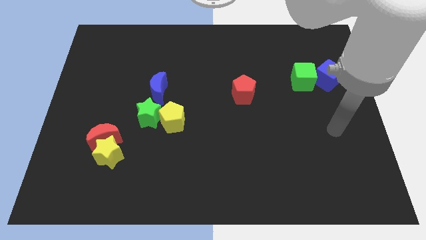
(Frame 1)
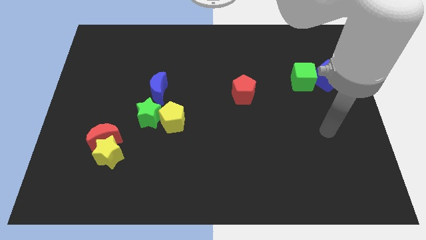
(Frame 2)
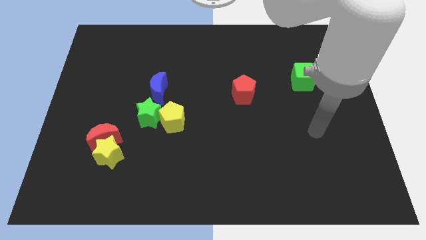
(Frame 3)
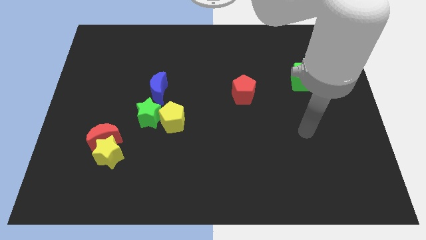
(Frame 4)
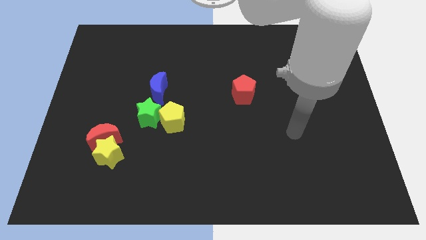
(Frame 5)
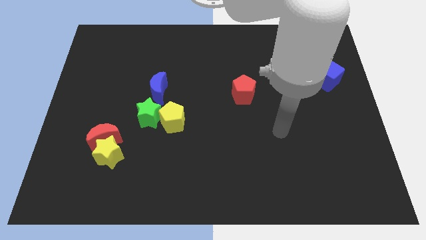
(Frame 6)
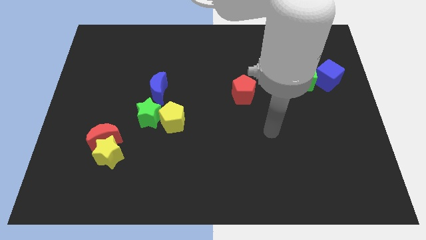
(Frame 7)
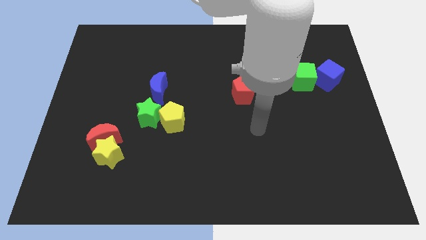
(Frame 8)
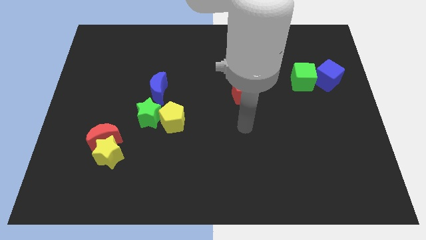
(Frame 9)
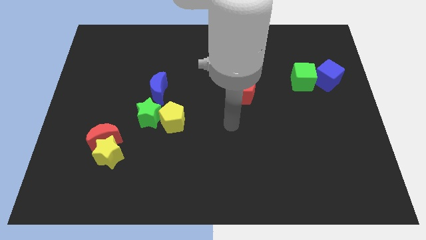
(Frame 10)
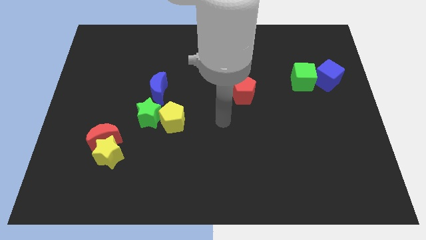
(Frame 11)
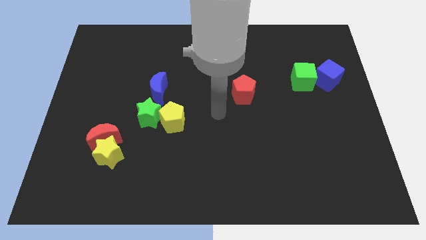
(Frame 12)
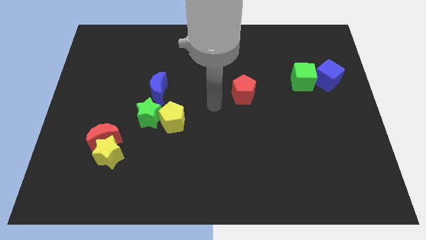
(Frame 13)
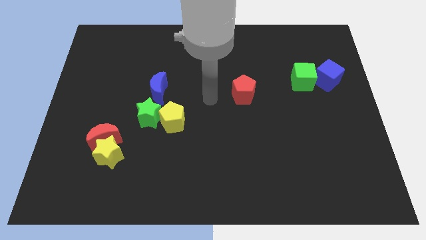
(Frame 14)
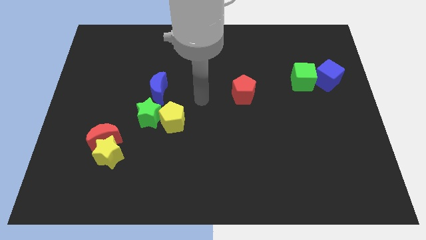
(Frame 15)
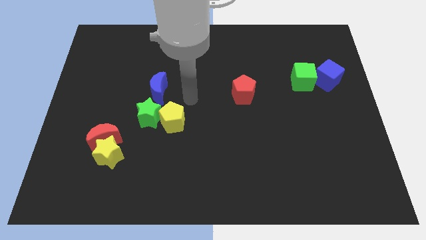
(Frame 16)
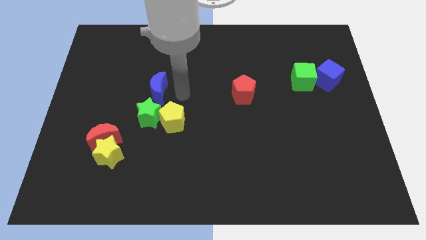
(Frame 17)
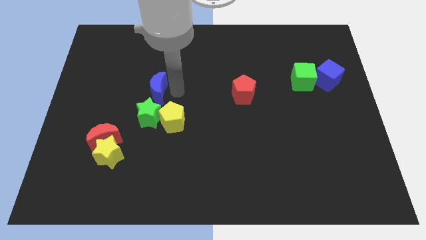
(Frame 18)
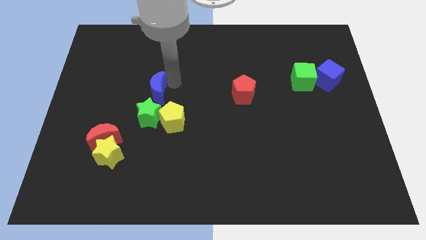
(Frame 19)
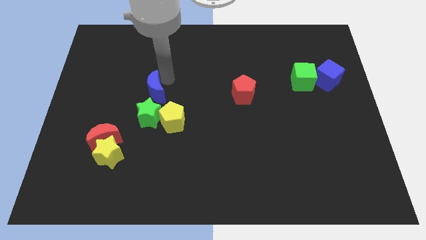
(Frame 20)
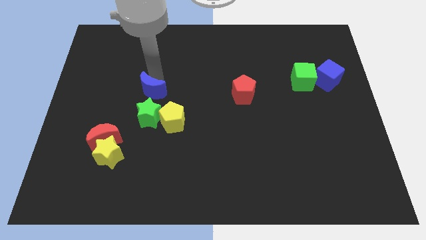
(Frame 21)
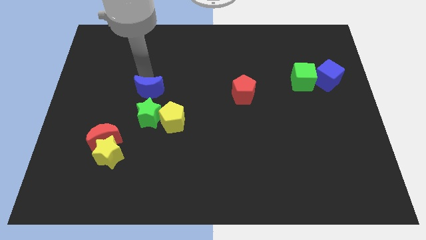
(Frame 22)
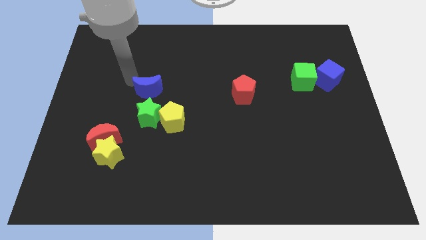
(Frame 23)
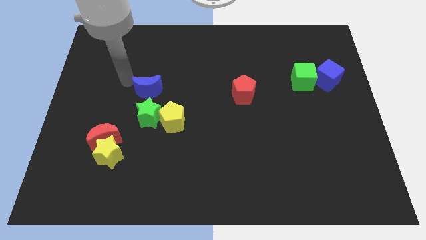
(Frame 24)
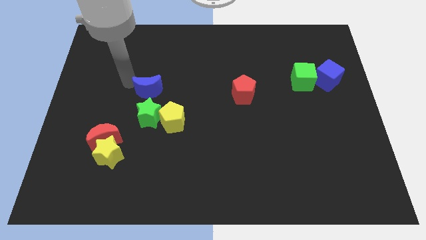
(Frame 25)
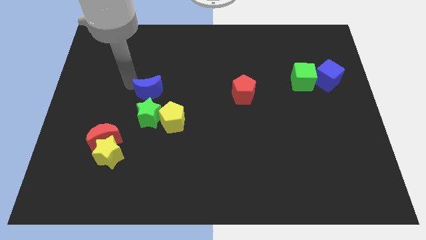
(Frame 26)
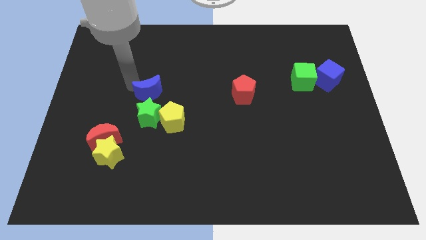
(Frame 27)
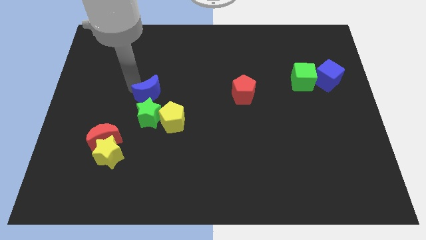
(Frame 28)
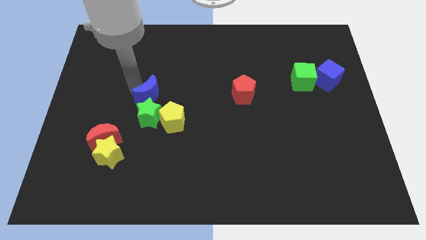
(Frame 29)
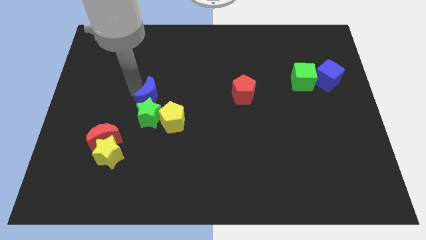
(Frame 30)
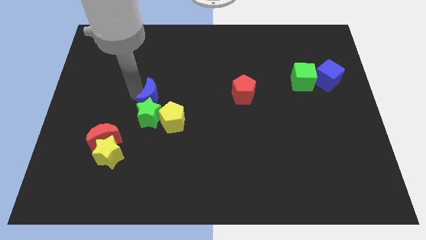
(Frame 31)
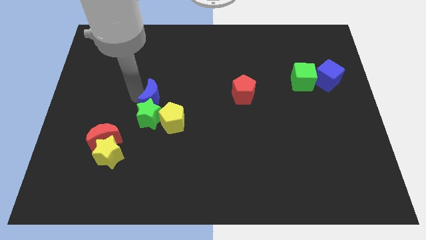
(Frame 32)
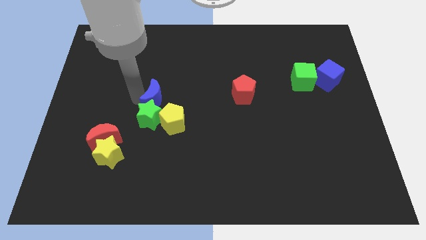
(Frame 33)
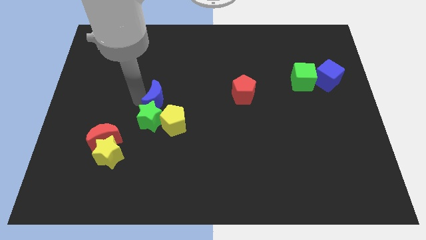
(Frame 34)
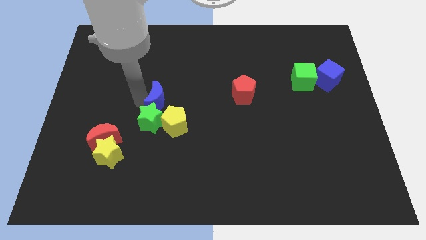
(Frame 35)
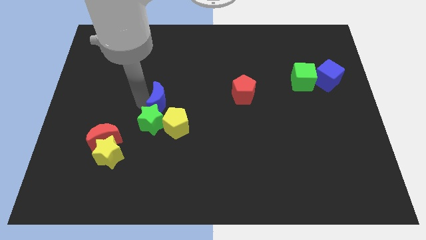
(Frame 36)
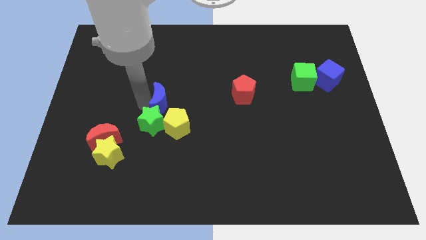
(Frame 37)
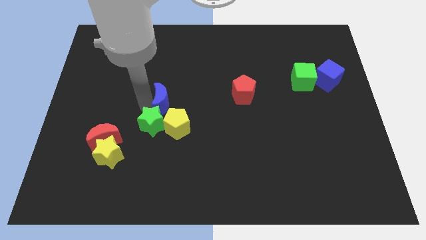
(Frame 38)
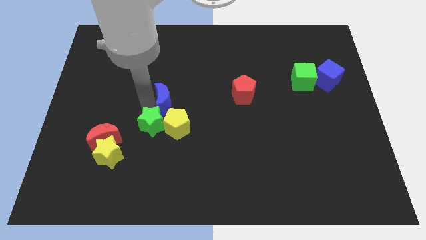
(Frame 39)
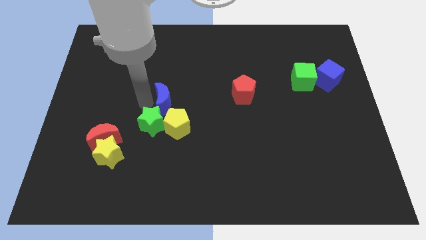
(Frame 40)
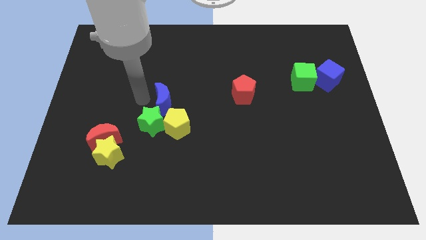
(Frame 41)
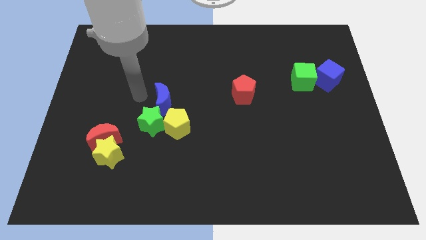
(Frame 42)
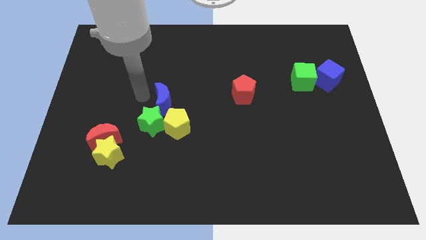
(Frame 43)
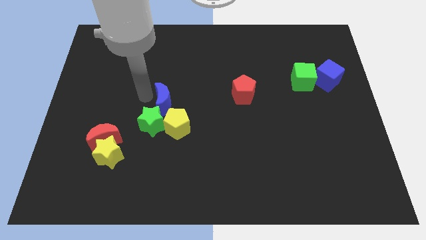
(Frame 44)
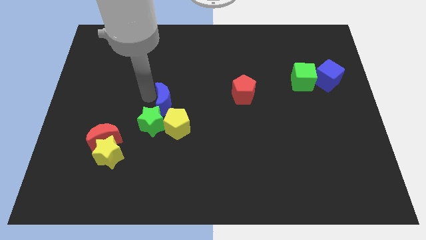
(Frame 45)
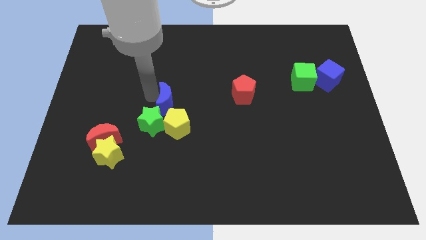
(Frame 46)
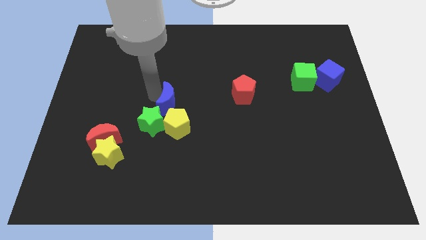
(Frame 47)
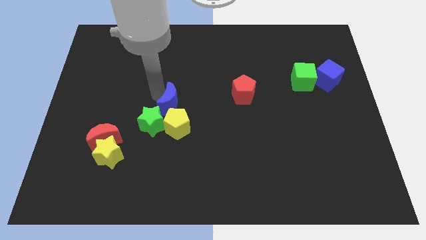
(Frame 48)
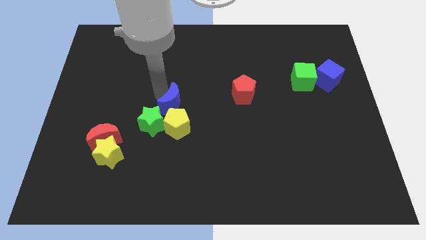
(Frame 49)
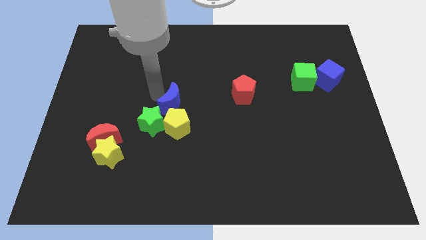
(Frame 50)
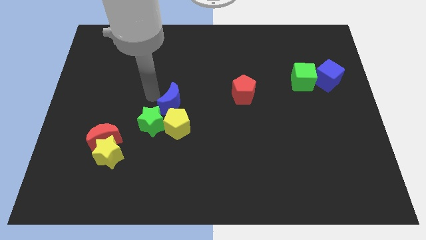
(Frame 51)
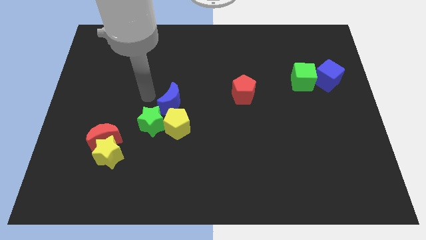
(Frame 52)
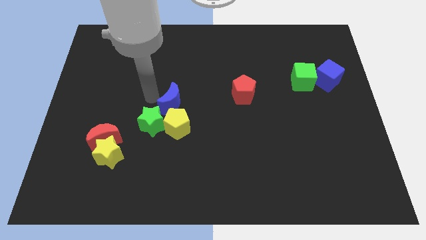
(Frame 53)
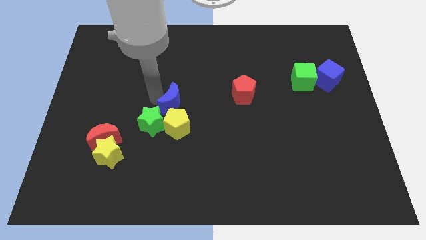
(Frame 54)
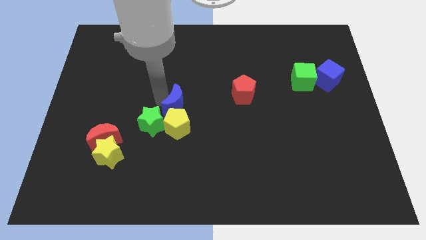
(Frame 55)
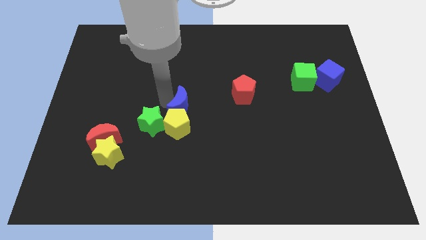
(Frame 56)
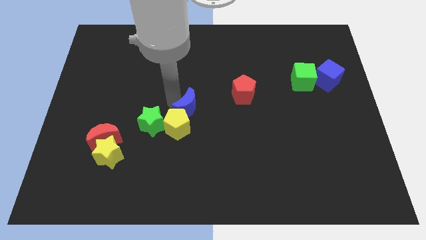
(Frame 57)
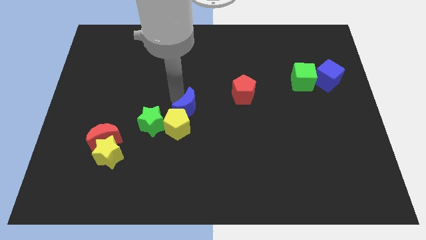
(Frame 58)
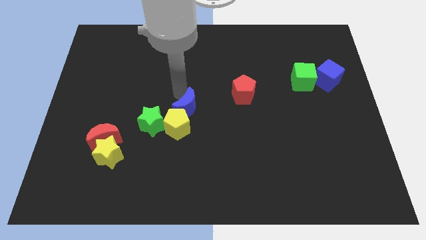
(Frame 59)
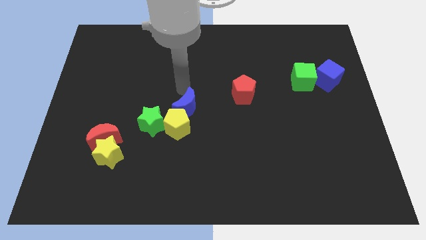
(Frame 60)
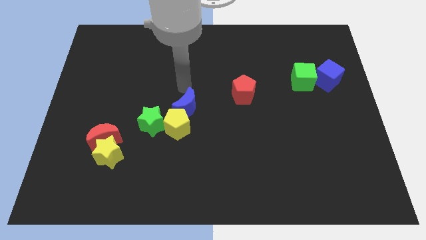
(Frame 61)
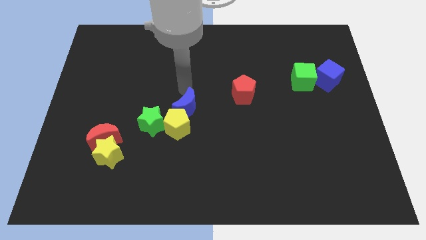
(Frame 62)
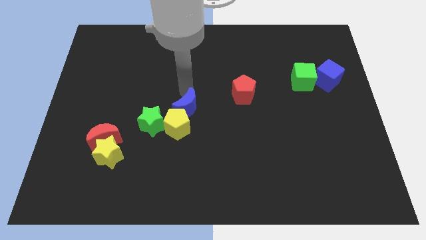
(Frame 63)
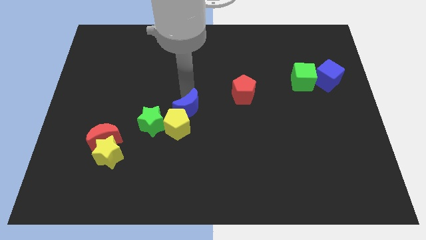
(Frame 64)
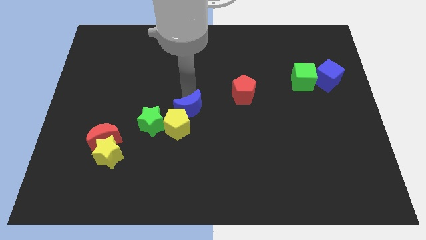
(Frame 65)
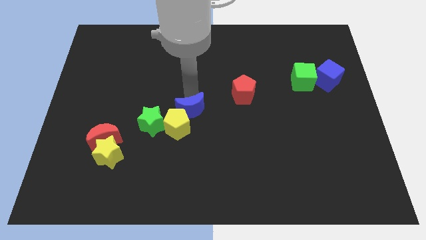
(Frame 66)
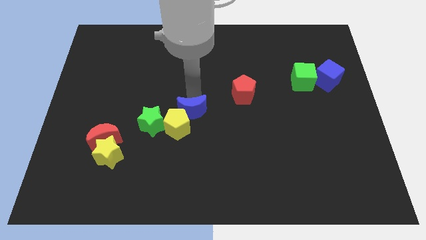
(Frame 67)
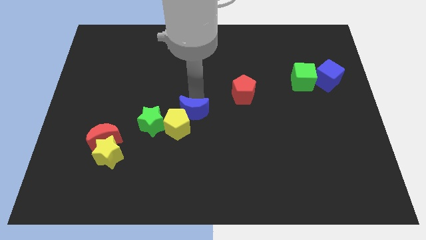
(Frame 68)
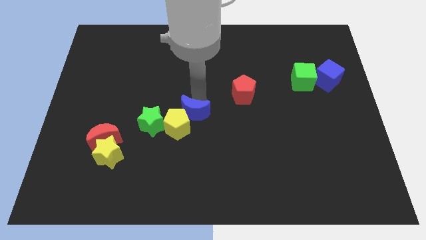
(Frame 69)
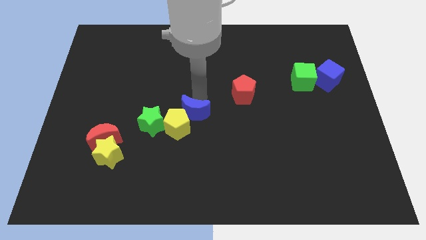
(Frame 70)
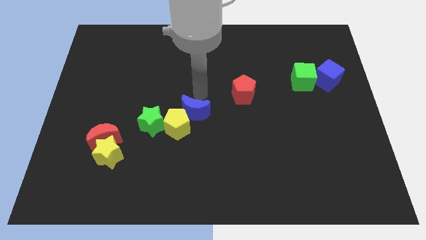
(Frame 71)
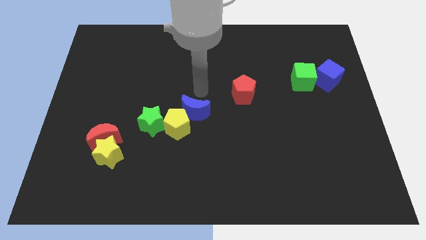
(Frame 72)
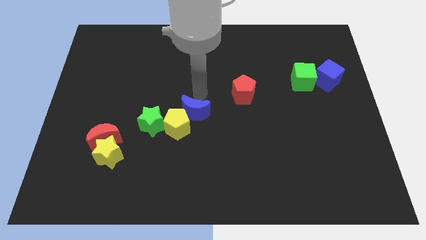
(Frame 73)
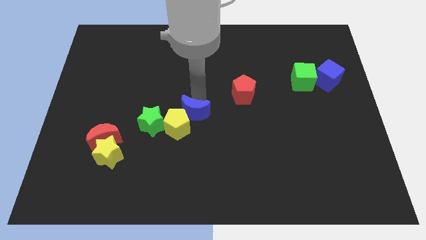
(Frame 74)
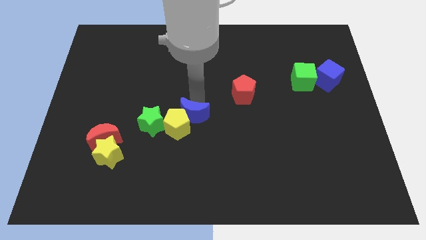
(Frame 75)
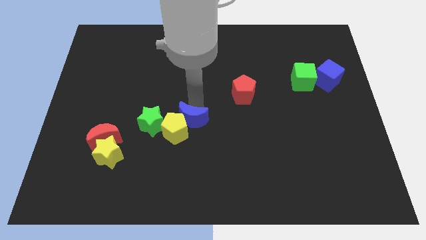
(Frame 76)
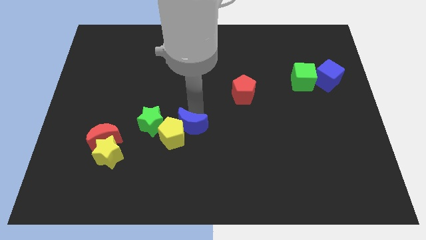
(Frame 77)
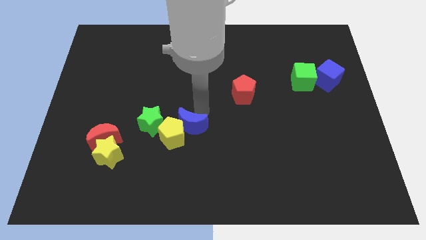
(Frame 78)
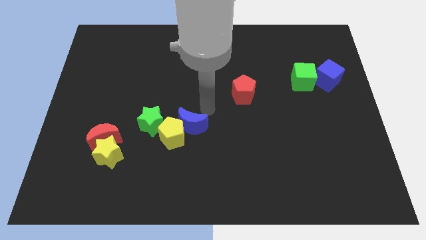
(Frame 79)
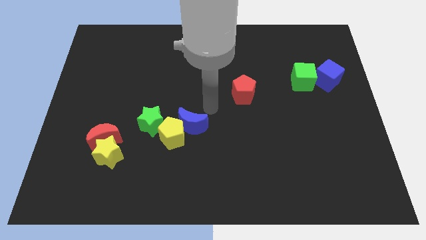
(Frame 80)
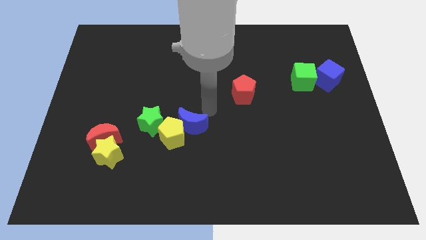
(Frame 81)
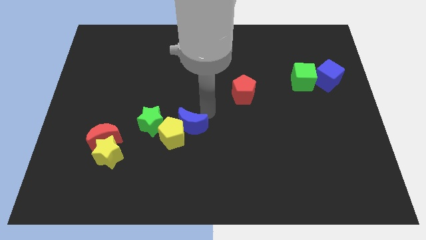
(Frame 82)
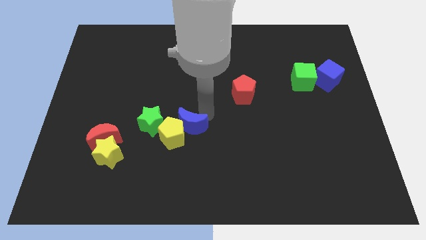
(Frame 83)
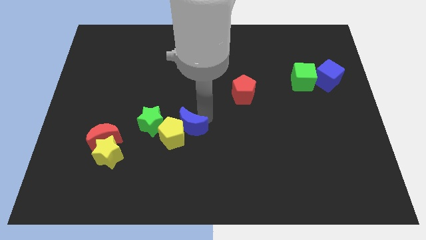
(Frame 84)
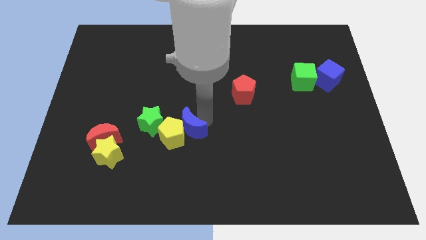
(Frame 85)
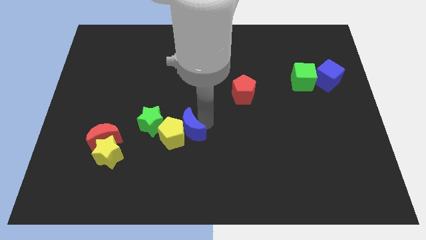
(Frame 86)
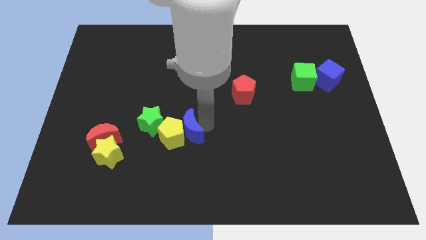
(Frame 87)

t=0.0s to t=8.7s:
push the blue moon to the bottom right side of the green star
